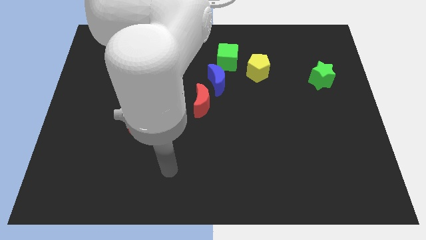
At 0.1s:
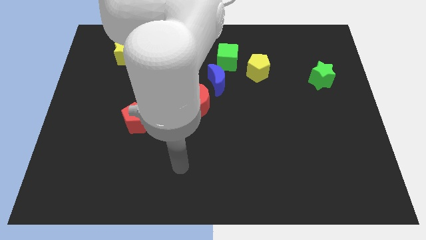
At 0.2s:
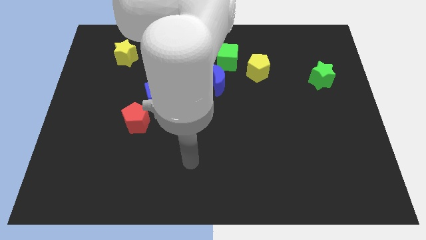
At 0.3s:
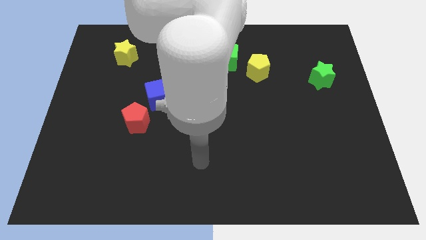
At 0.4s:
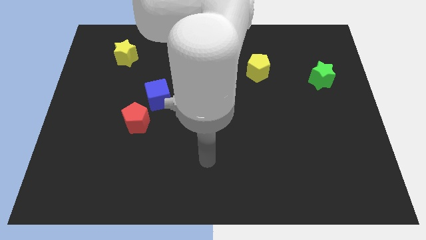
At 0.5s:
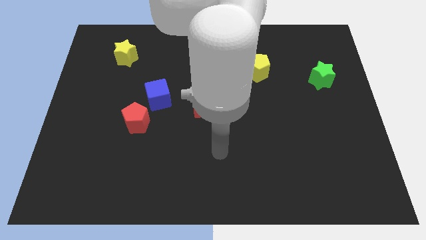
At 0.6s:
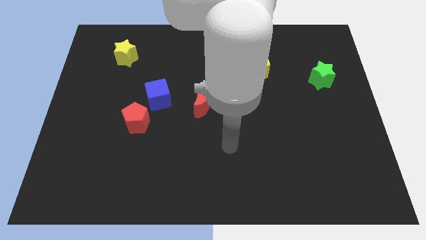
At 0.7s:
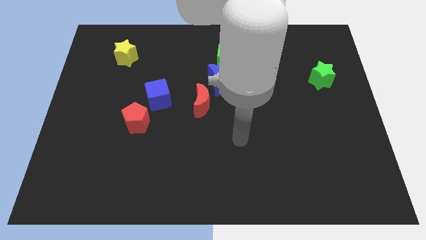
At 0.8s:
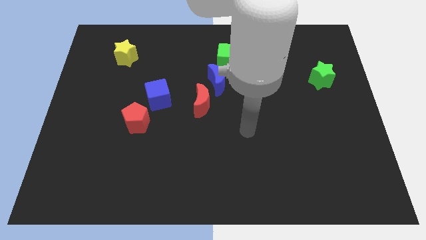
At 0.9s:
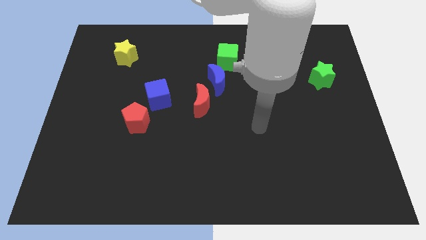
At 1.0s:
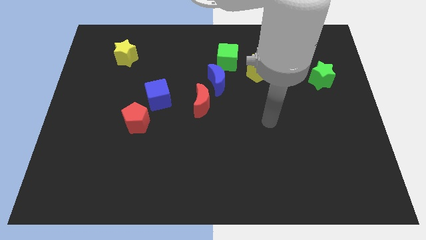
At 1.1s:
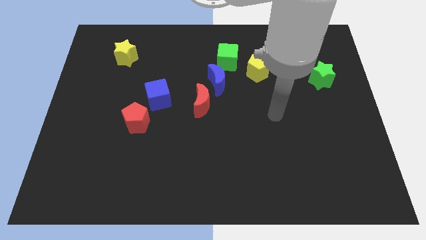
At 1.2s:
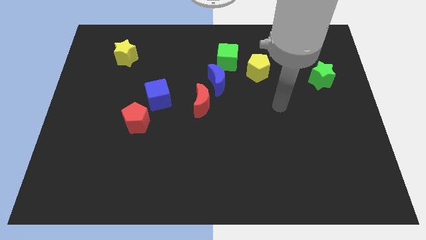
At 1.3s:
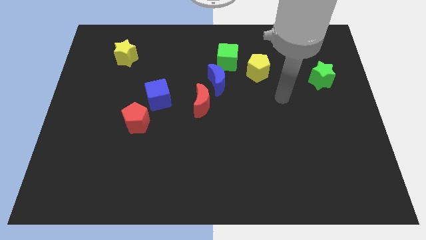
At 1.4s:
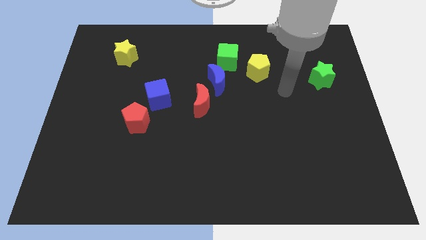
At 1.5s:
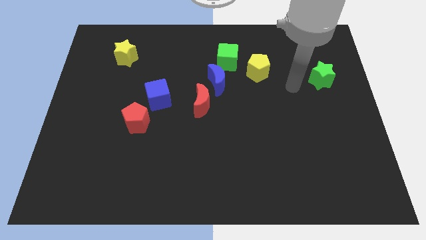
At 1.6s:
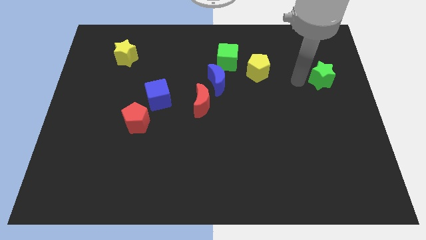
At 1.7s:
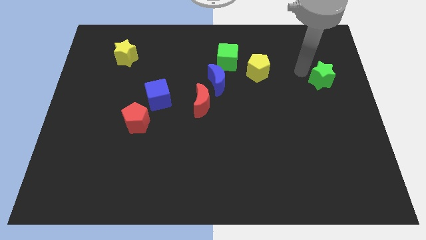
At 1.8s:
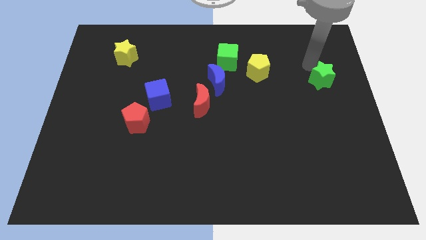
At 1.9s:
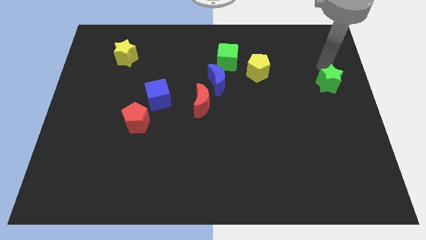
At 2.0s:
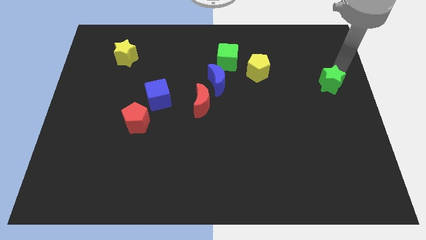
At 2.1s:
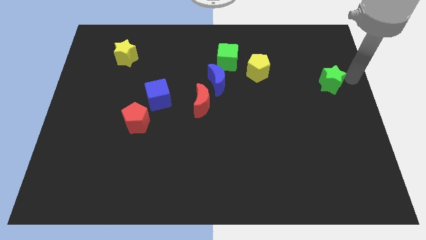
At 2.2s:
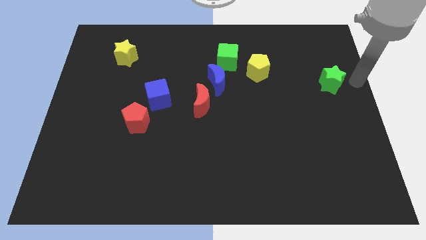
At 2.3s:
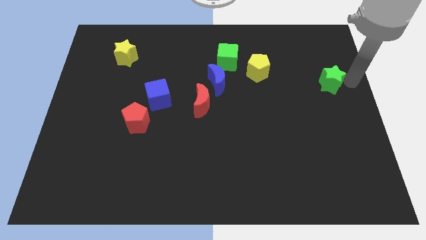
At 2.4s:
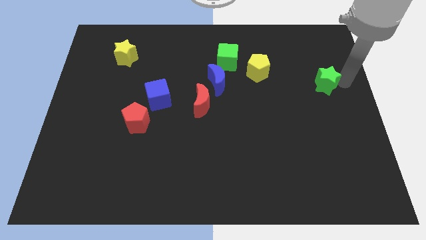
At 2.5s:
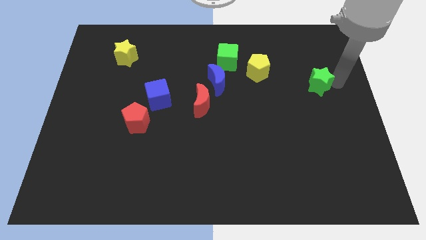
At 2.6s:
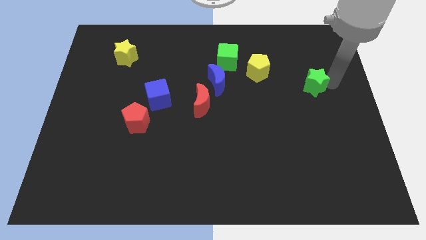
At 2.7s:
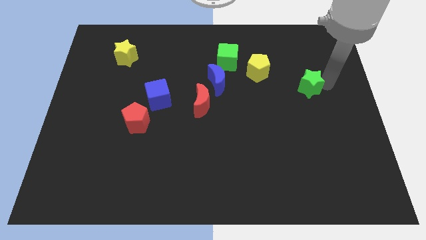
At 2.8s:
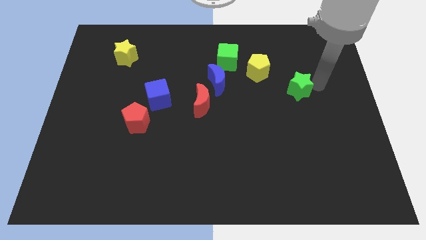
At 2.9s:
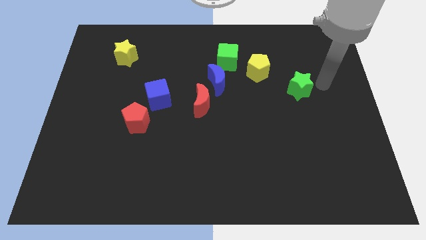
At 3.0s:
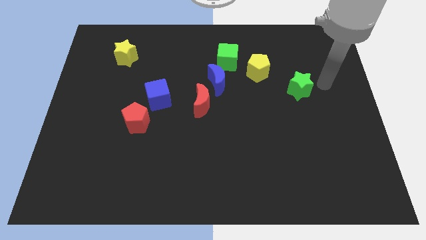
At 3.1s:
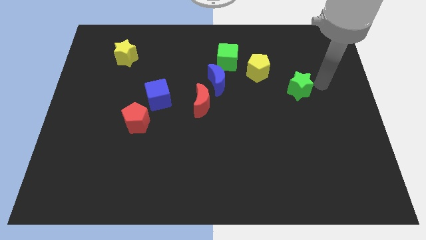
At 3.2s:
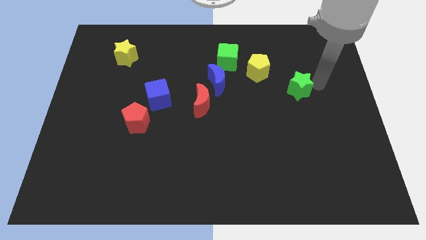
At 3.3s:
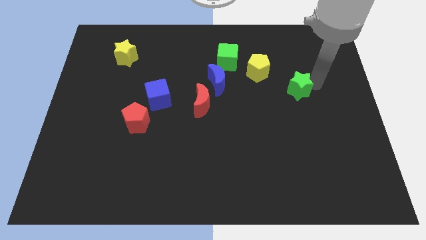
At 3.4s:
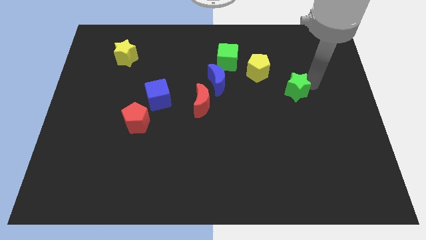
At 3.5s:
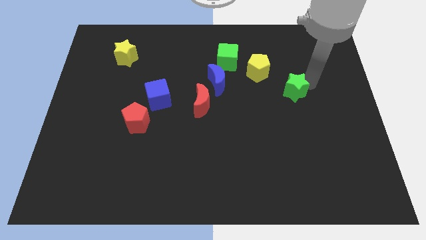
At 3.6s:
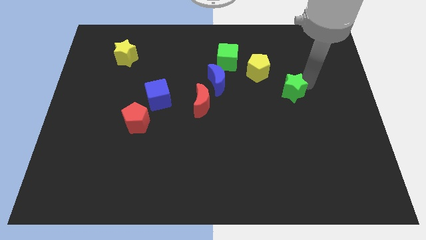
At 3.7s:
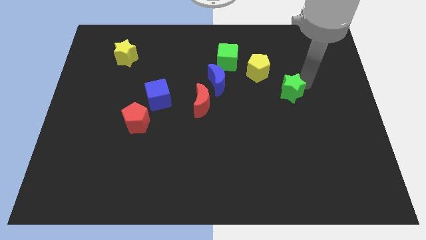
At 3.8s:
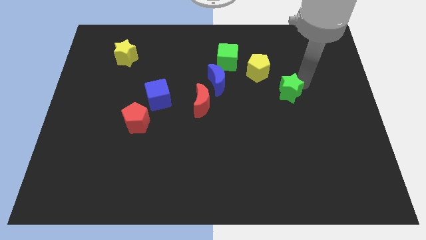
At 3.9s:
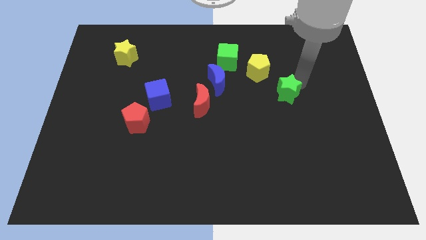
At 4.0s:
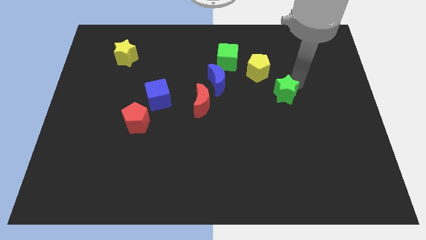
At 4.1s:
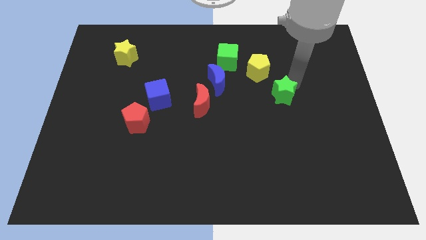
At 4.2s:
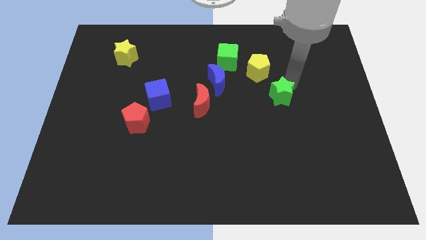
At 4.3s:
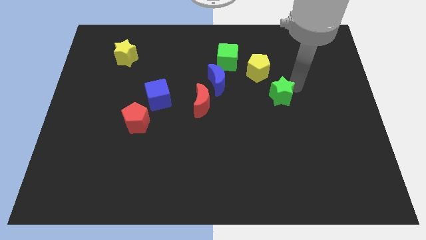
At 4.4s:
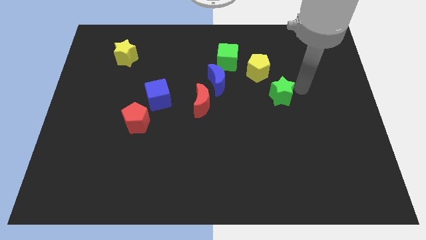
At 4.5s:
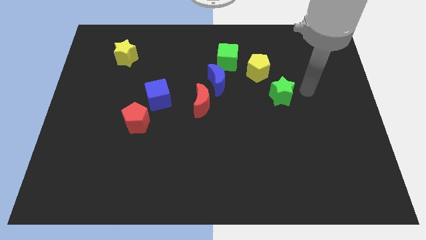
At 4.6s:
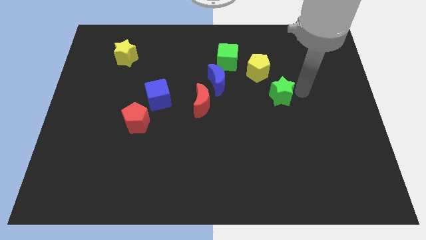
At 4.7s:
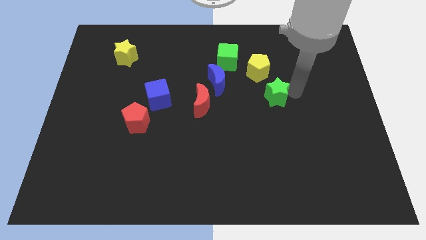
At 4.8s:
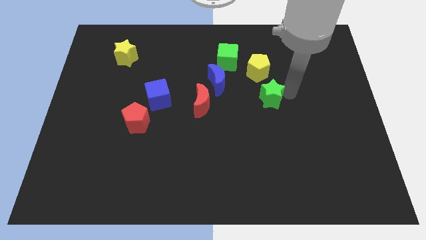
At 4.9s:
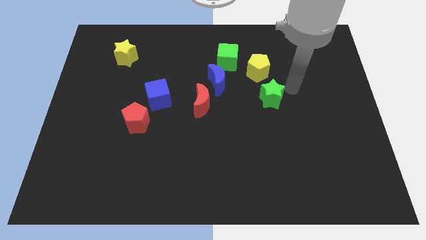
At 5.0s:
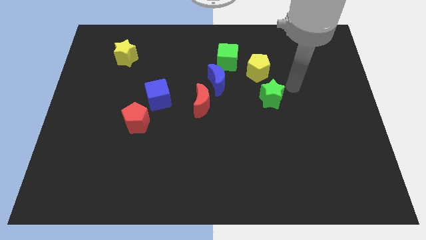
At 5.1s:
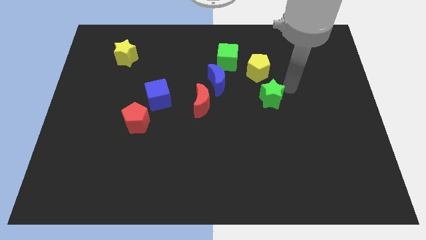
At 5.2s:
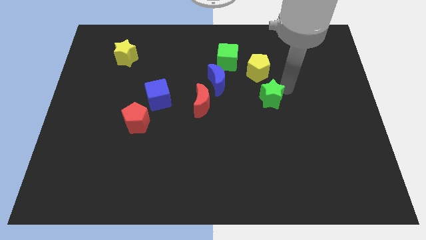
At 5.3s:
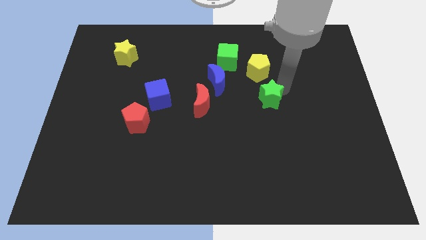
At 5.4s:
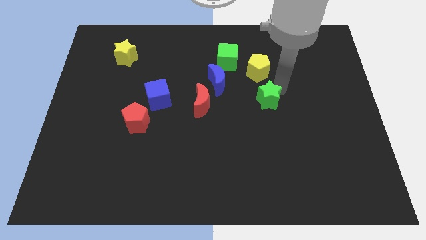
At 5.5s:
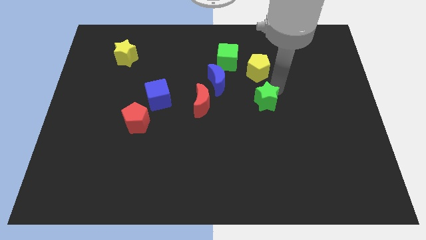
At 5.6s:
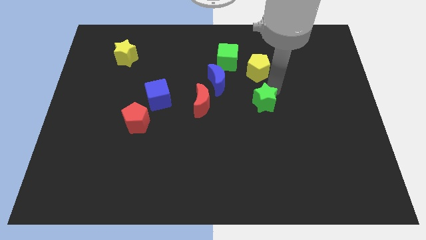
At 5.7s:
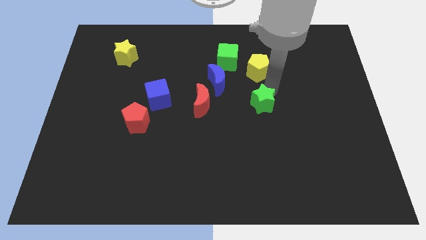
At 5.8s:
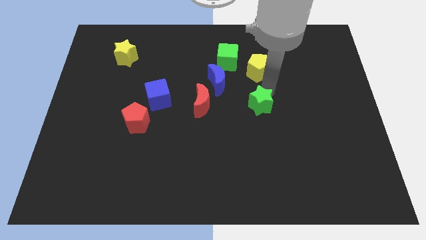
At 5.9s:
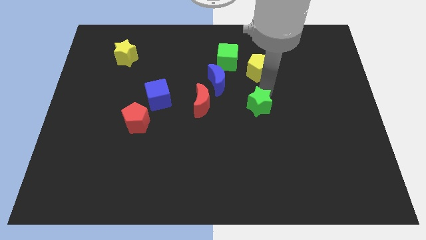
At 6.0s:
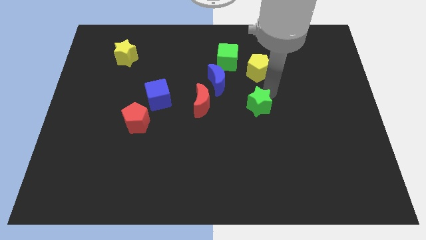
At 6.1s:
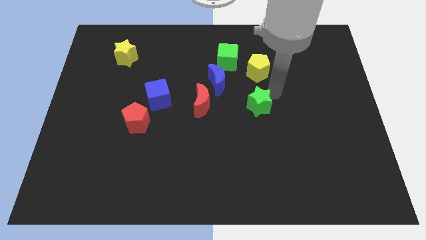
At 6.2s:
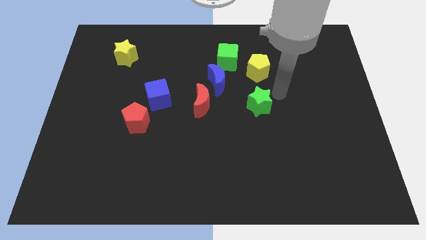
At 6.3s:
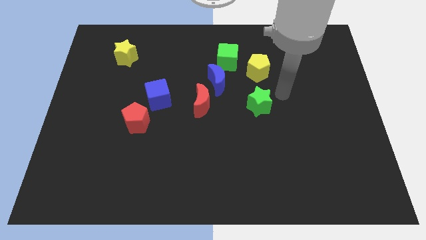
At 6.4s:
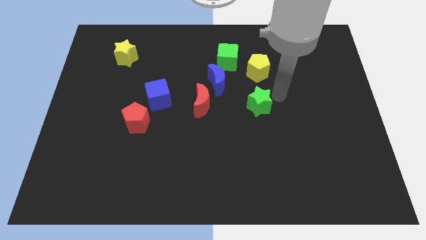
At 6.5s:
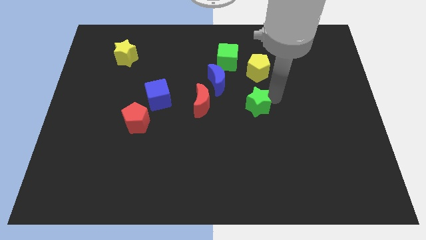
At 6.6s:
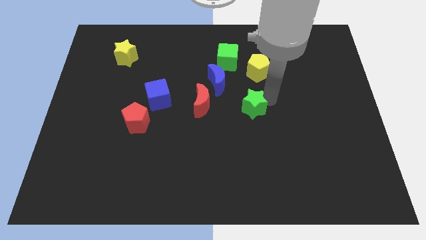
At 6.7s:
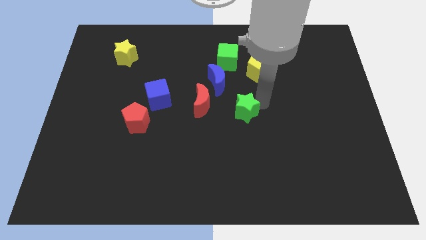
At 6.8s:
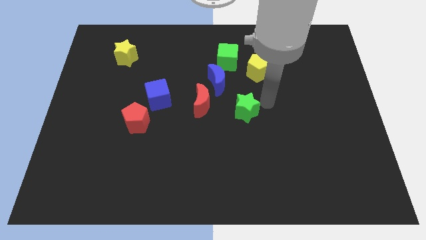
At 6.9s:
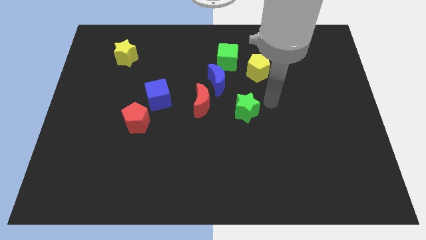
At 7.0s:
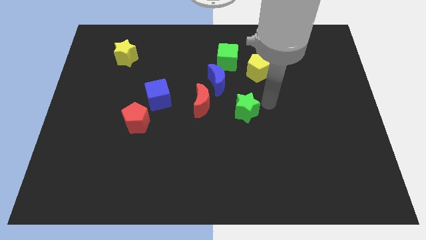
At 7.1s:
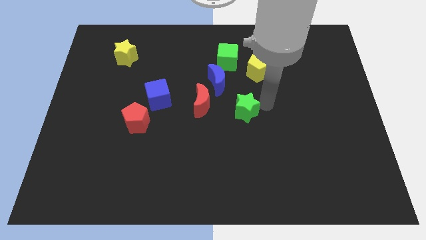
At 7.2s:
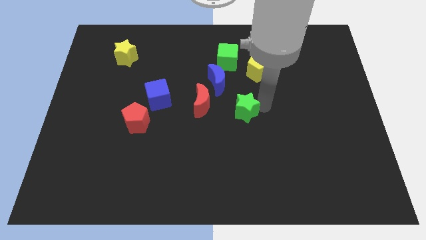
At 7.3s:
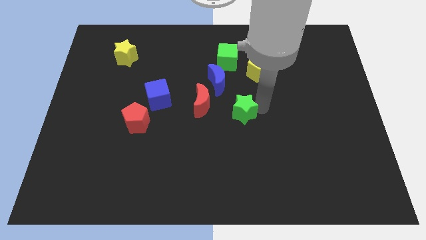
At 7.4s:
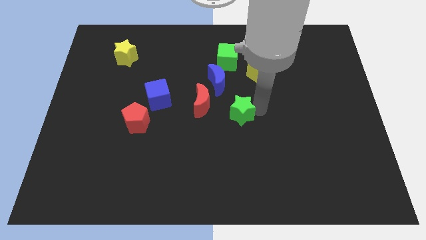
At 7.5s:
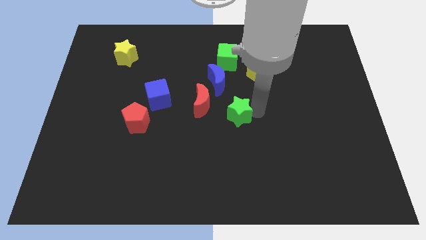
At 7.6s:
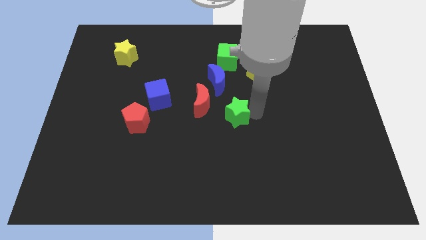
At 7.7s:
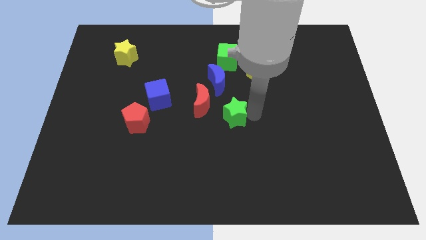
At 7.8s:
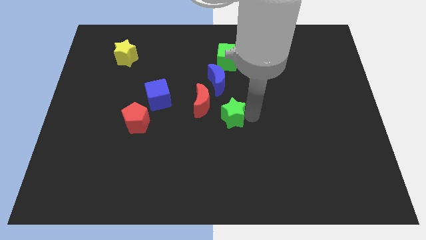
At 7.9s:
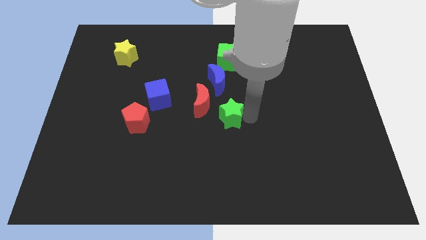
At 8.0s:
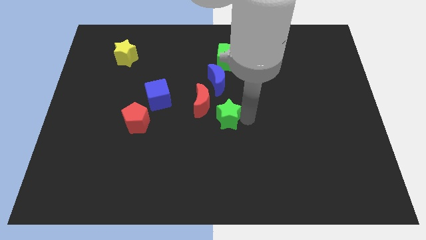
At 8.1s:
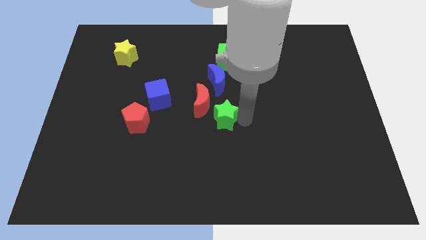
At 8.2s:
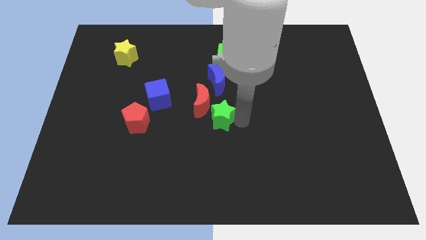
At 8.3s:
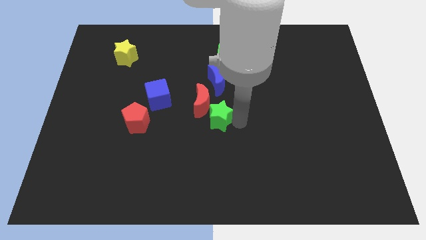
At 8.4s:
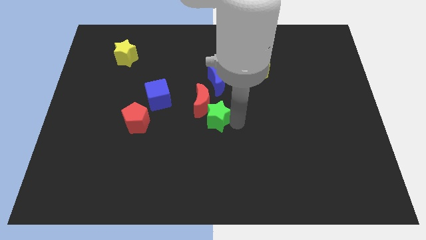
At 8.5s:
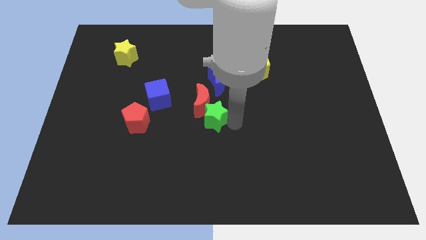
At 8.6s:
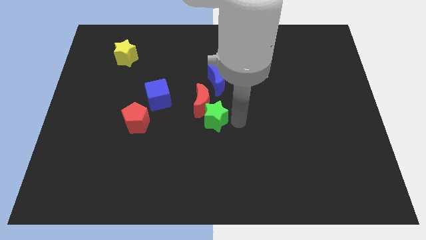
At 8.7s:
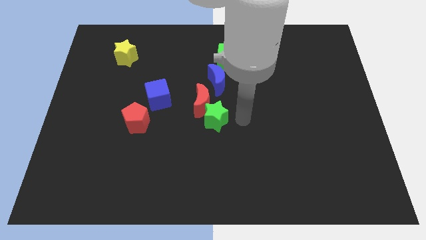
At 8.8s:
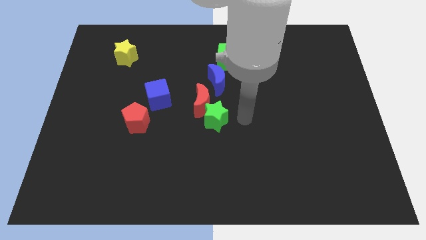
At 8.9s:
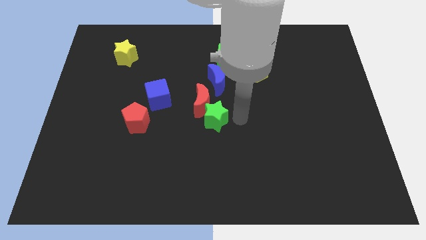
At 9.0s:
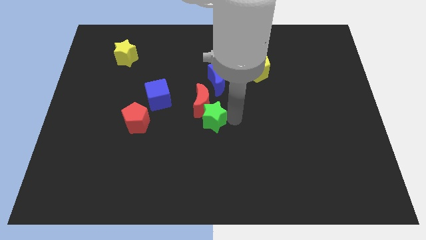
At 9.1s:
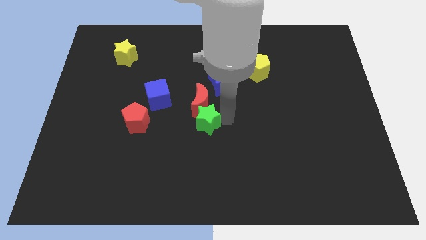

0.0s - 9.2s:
push the green star to the right side of the red pentagon
